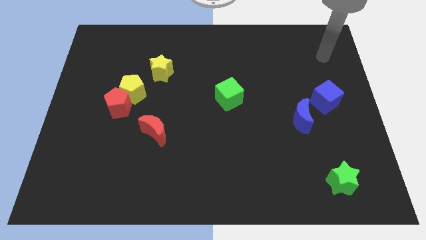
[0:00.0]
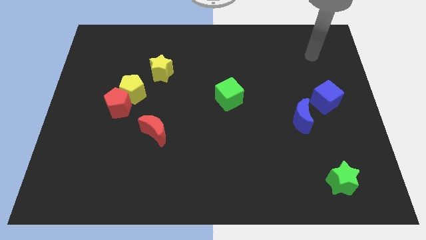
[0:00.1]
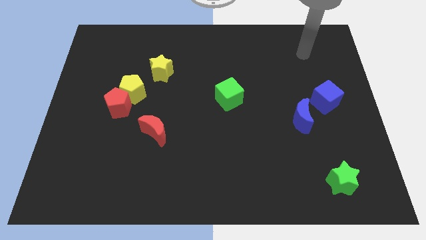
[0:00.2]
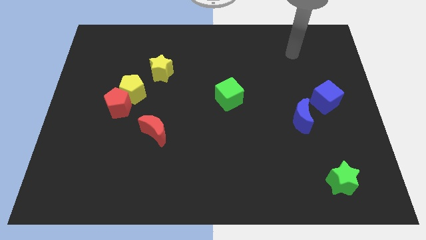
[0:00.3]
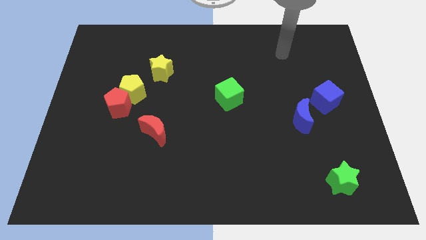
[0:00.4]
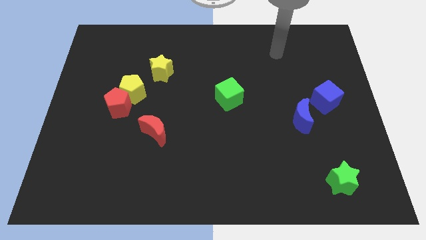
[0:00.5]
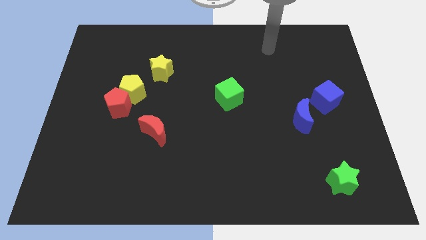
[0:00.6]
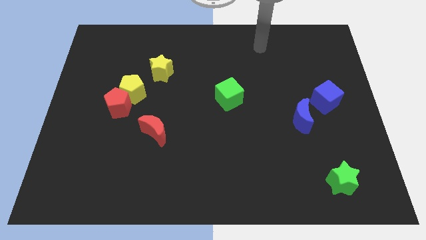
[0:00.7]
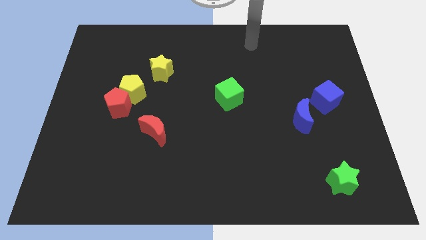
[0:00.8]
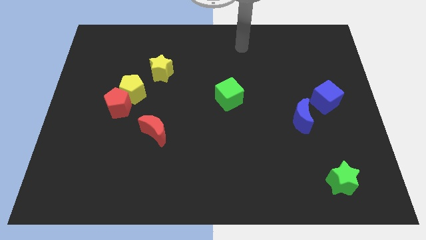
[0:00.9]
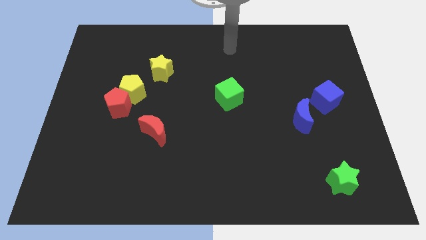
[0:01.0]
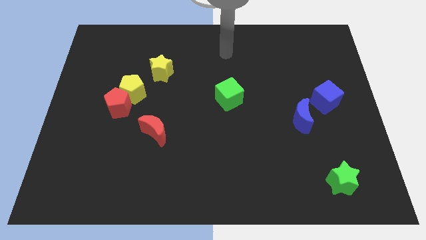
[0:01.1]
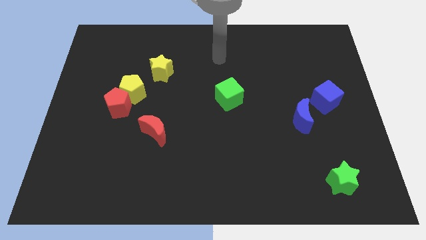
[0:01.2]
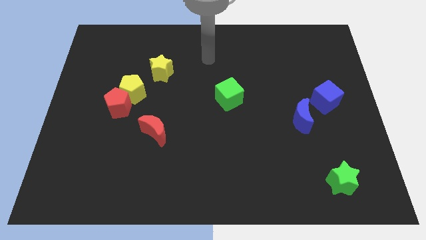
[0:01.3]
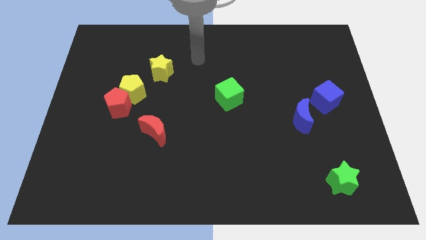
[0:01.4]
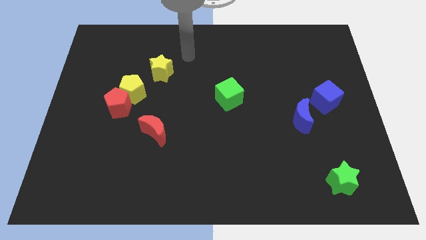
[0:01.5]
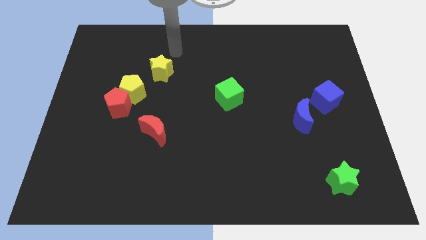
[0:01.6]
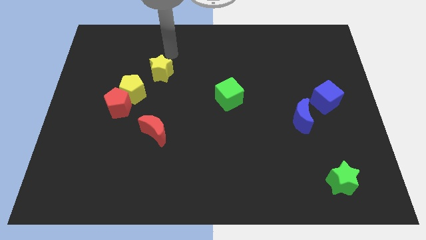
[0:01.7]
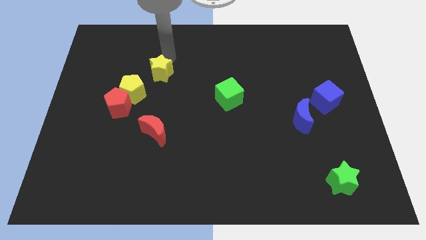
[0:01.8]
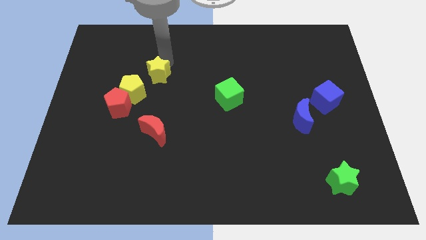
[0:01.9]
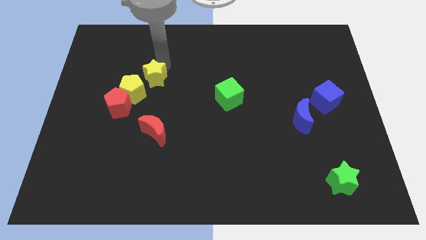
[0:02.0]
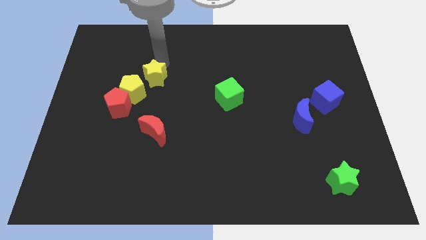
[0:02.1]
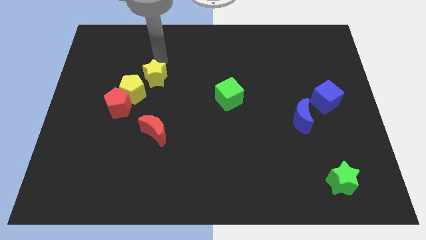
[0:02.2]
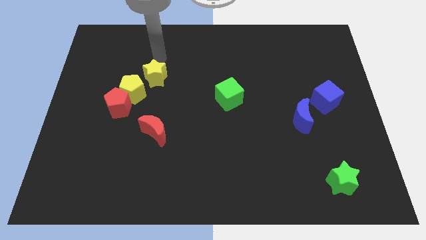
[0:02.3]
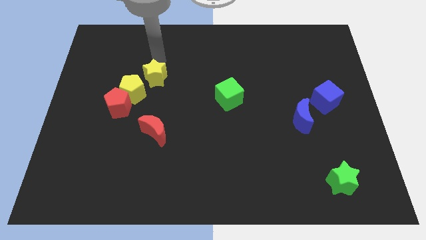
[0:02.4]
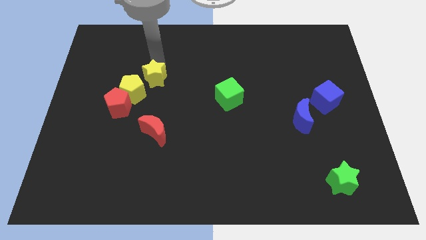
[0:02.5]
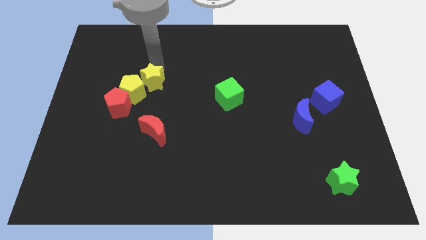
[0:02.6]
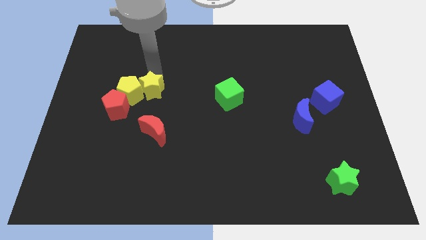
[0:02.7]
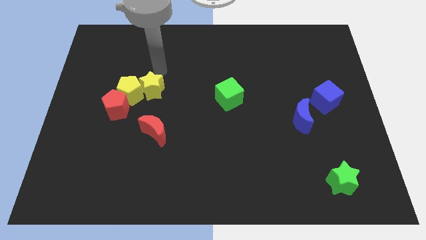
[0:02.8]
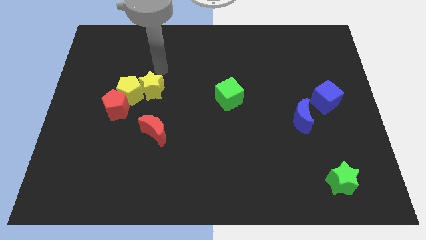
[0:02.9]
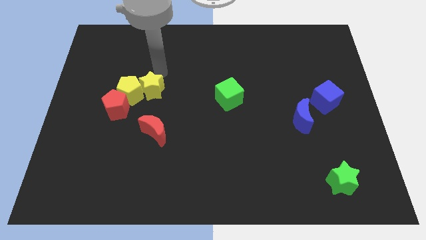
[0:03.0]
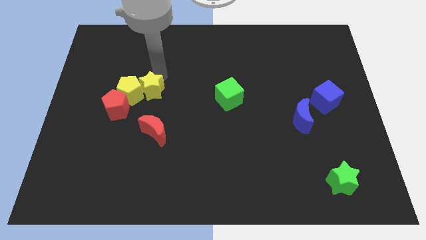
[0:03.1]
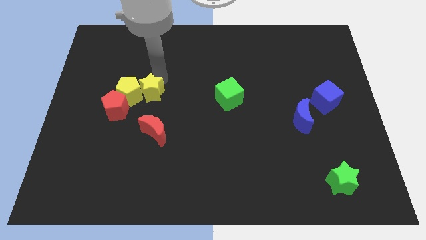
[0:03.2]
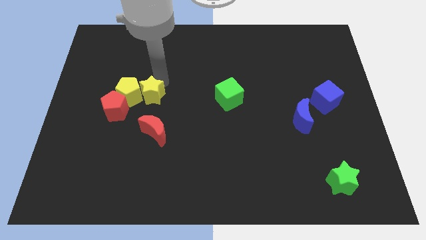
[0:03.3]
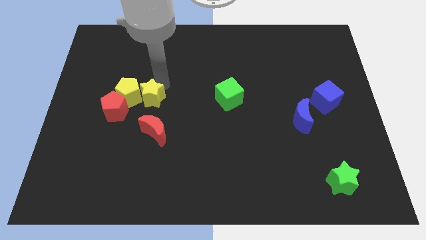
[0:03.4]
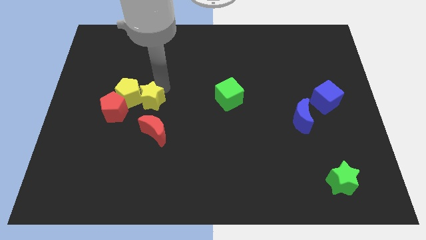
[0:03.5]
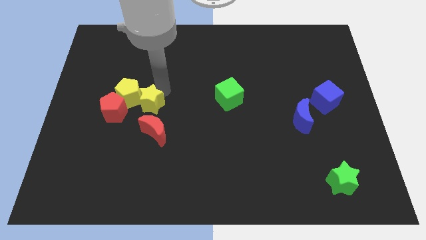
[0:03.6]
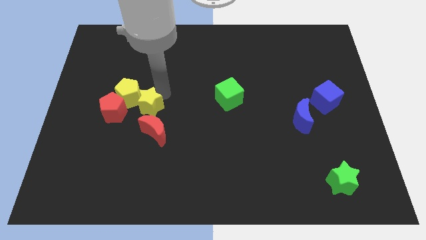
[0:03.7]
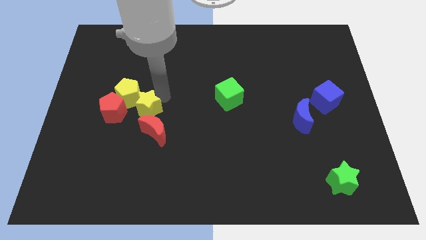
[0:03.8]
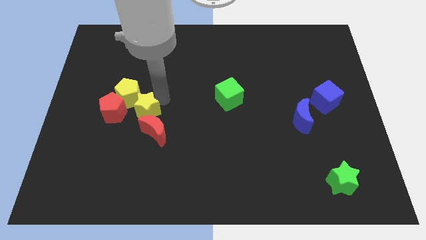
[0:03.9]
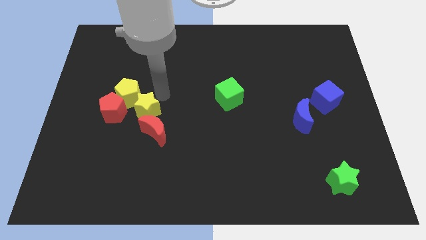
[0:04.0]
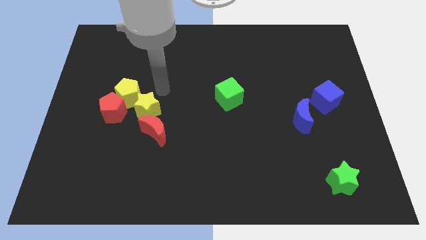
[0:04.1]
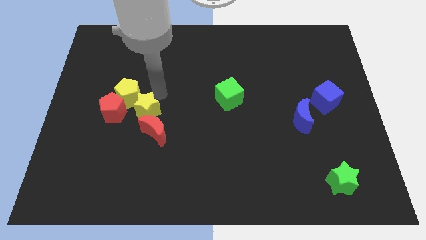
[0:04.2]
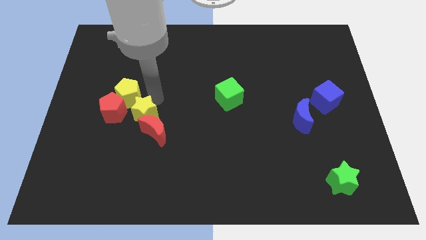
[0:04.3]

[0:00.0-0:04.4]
put the yellow star to the bottom right side of the red pentagon

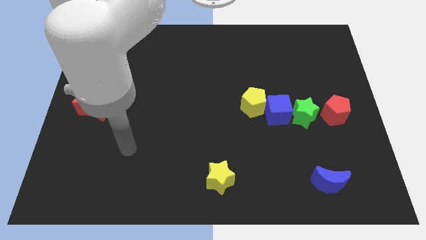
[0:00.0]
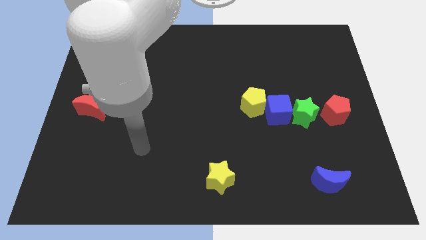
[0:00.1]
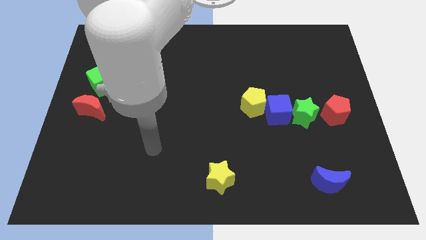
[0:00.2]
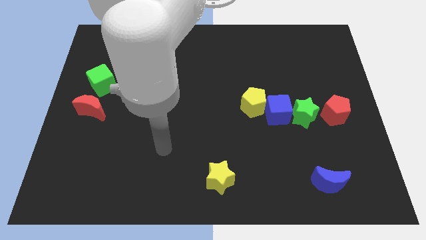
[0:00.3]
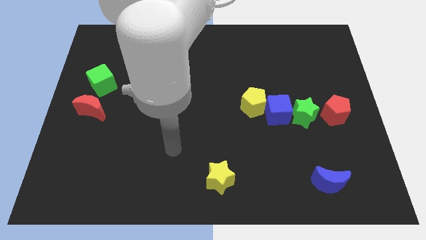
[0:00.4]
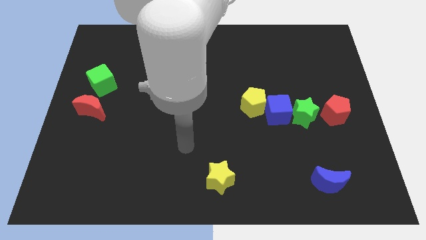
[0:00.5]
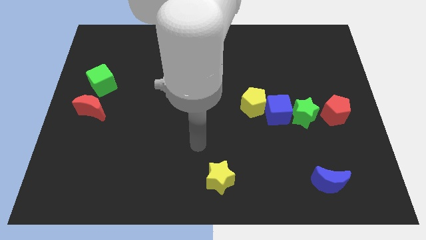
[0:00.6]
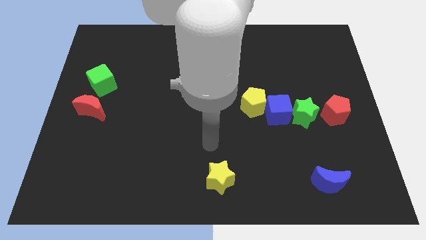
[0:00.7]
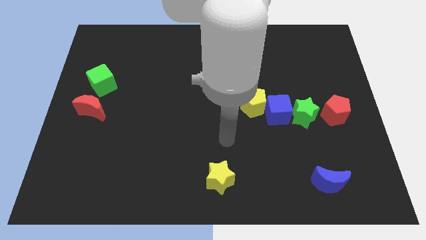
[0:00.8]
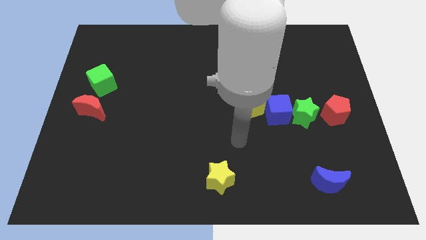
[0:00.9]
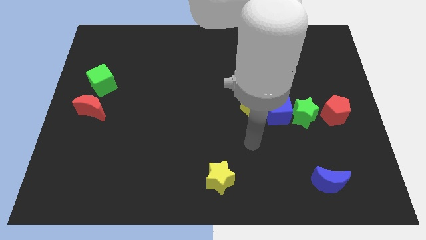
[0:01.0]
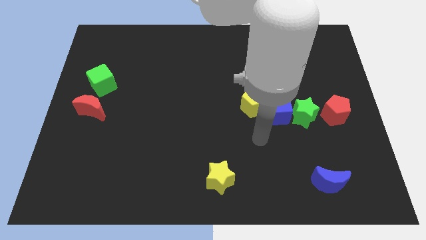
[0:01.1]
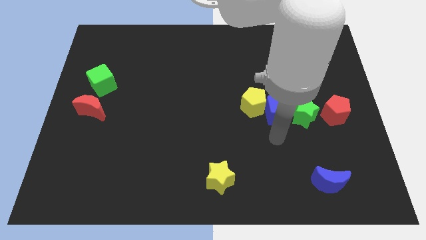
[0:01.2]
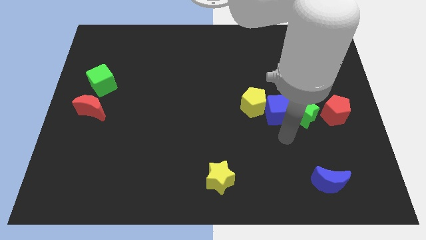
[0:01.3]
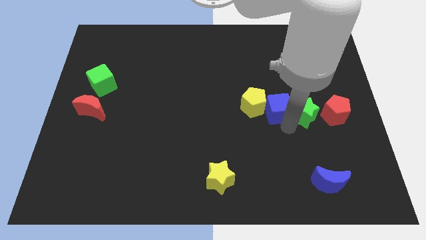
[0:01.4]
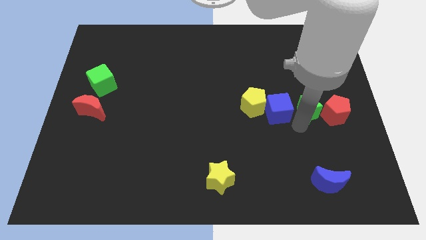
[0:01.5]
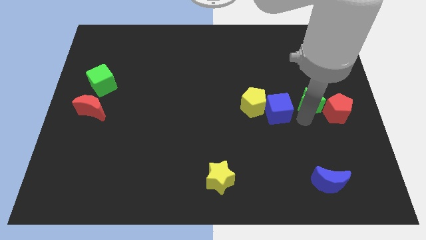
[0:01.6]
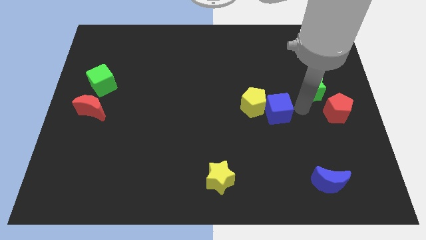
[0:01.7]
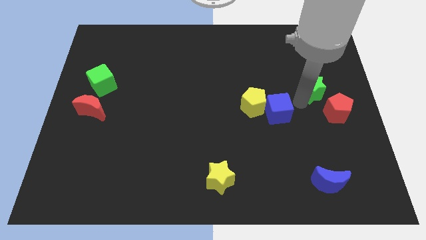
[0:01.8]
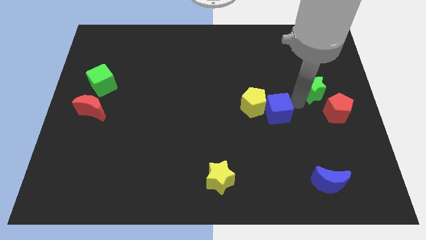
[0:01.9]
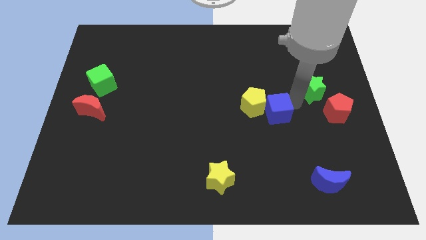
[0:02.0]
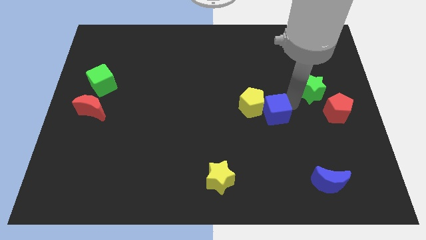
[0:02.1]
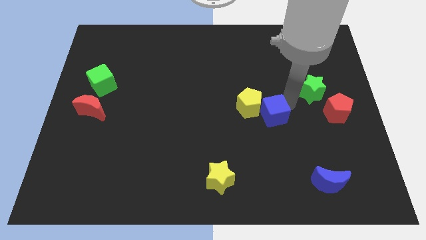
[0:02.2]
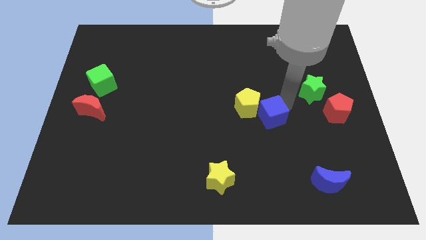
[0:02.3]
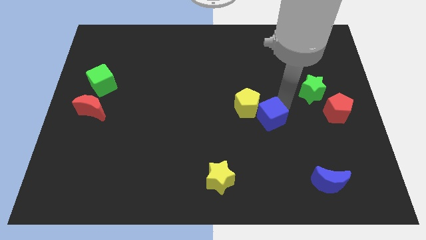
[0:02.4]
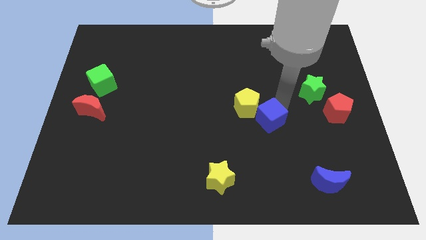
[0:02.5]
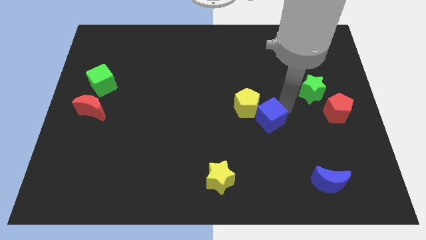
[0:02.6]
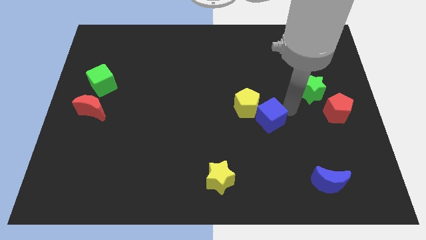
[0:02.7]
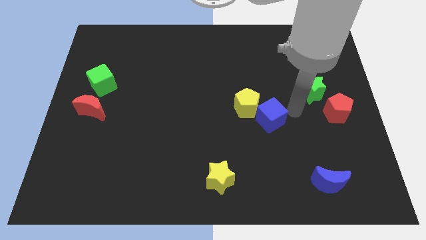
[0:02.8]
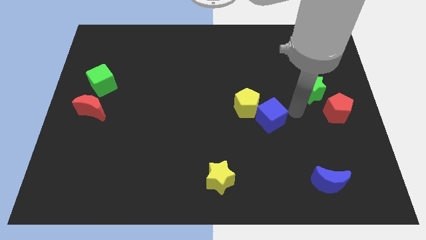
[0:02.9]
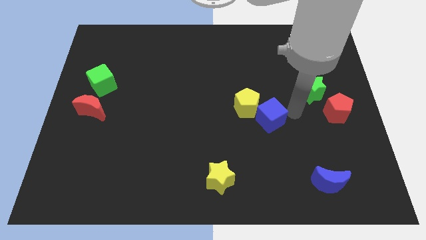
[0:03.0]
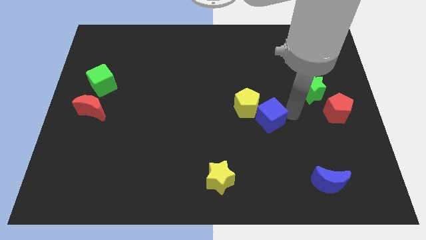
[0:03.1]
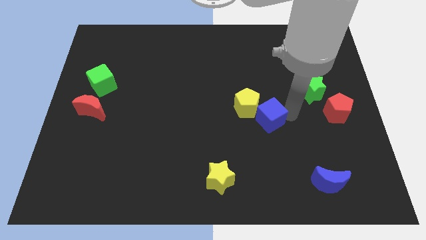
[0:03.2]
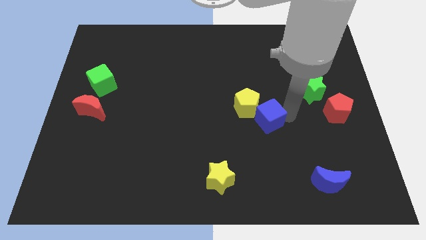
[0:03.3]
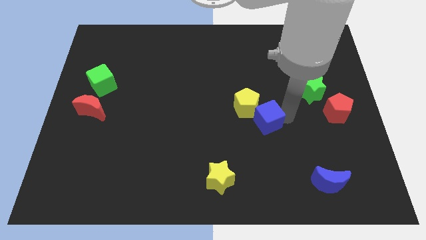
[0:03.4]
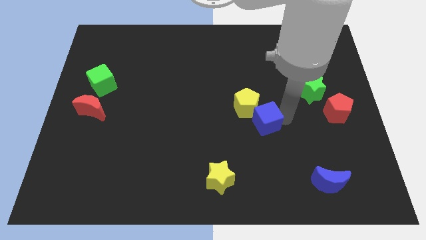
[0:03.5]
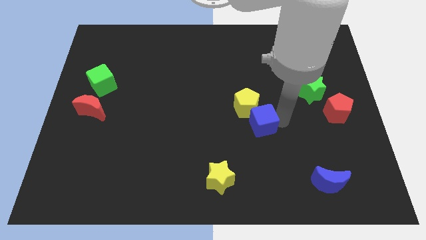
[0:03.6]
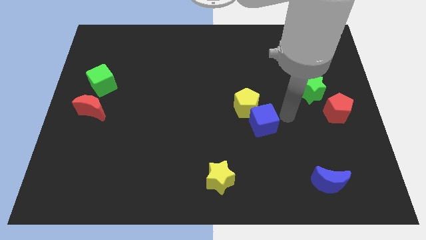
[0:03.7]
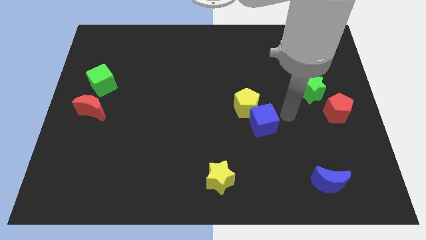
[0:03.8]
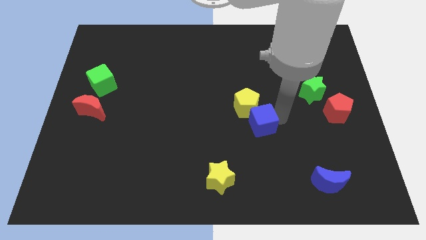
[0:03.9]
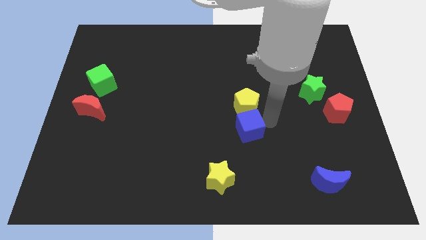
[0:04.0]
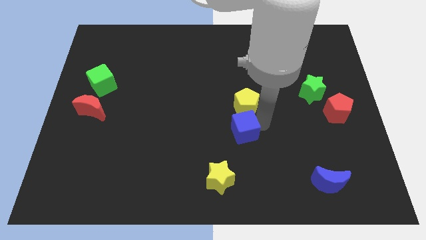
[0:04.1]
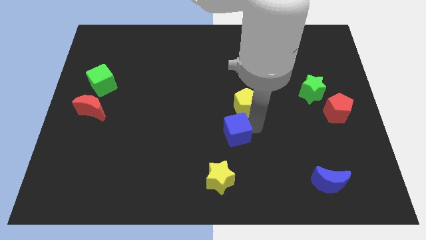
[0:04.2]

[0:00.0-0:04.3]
put the blue cube to the top of the yellow star
